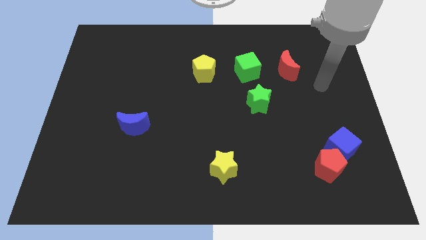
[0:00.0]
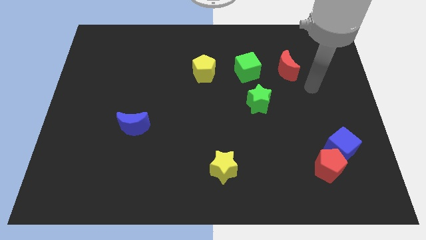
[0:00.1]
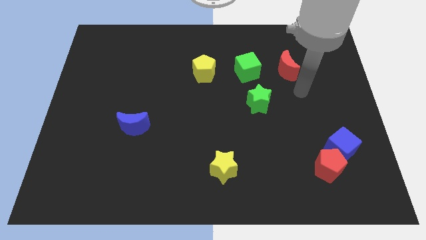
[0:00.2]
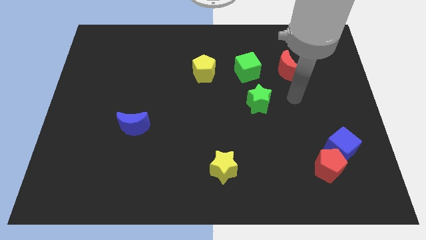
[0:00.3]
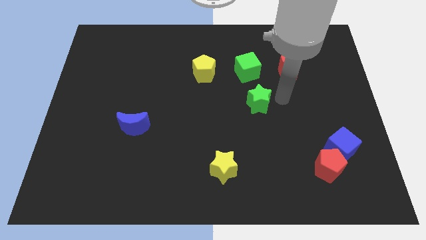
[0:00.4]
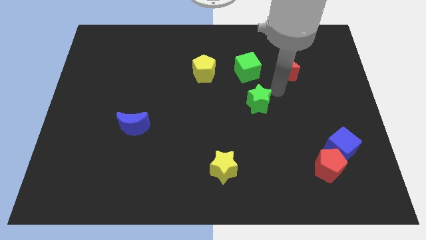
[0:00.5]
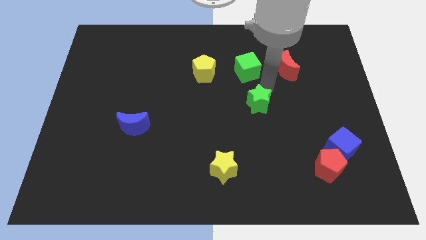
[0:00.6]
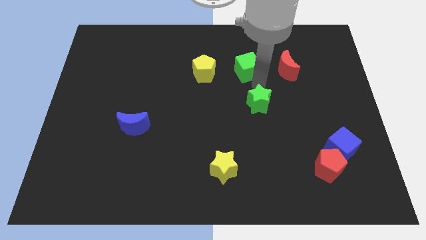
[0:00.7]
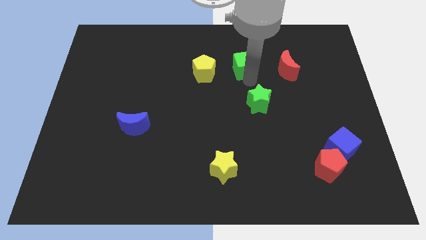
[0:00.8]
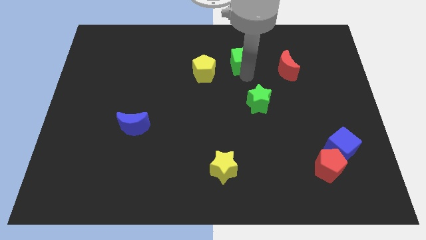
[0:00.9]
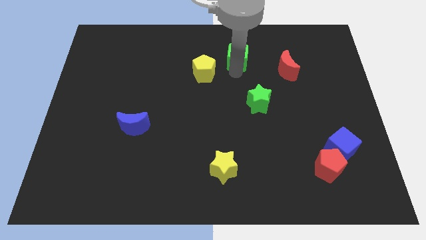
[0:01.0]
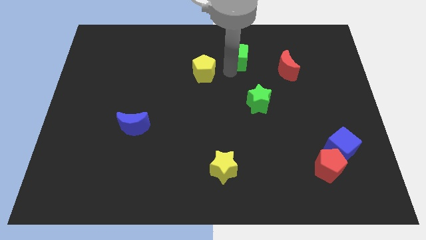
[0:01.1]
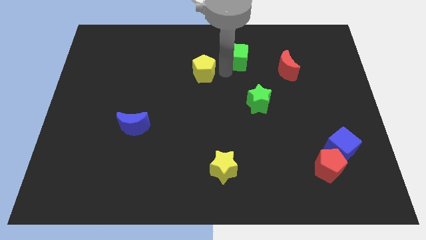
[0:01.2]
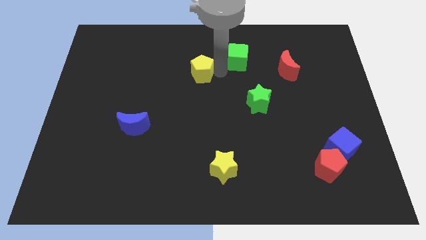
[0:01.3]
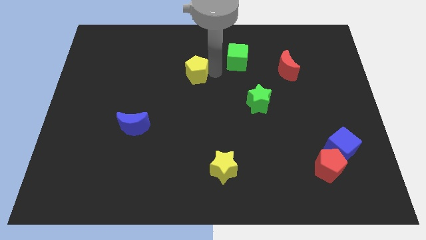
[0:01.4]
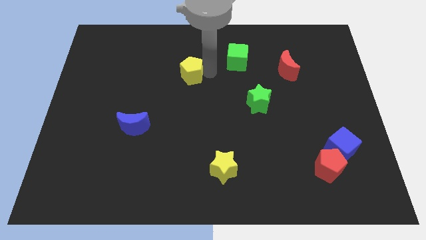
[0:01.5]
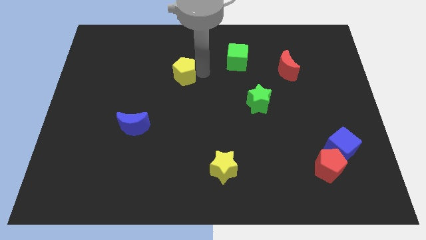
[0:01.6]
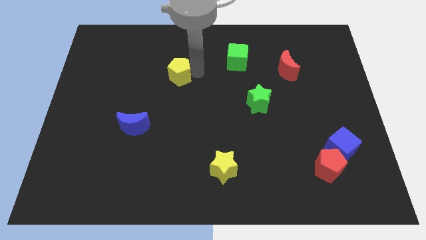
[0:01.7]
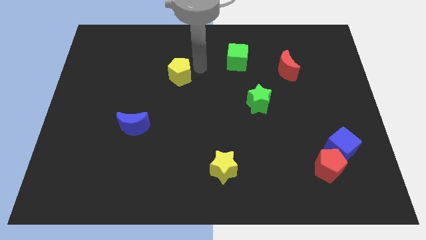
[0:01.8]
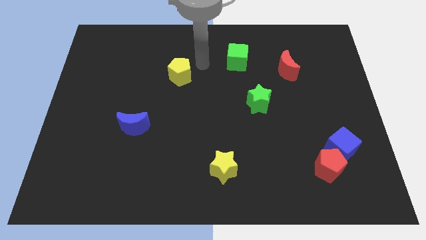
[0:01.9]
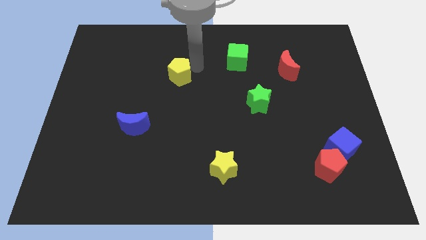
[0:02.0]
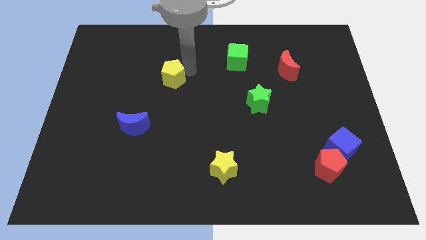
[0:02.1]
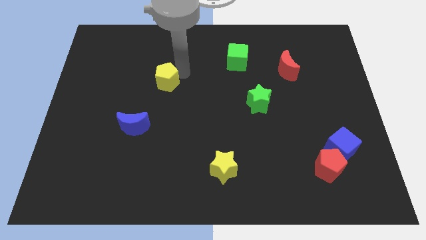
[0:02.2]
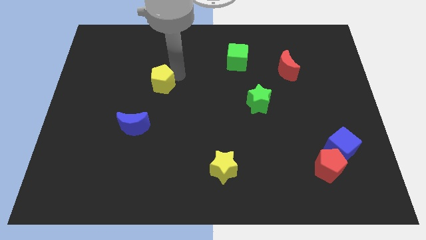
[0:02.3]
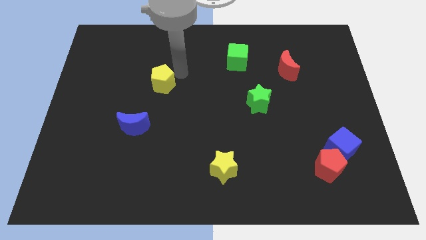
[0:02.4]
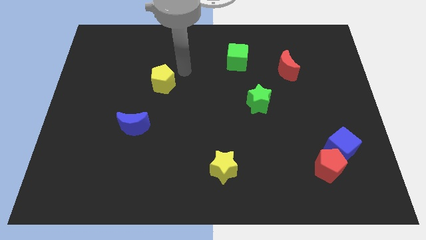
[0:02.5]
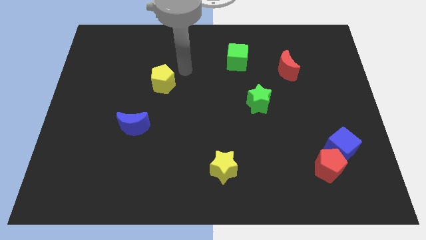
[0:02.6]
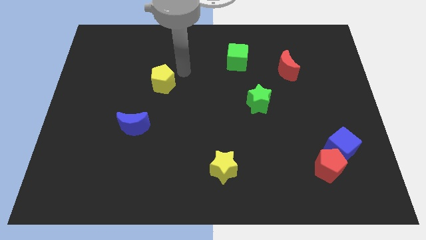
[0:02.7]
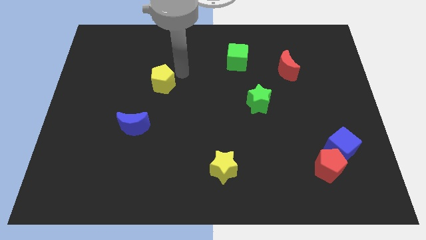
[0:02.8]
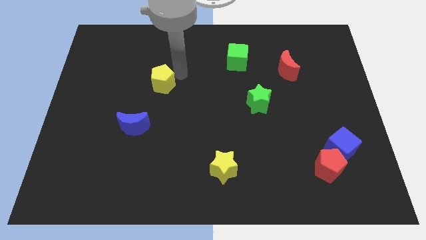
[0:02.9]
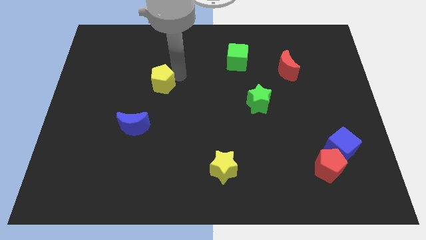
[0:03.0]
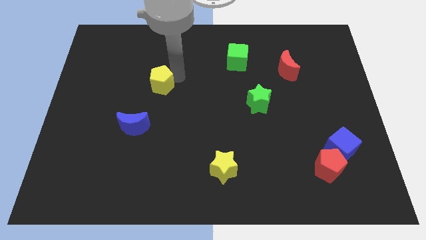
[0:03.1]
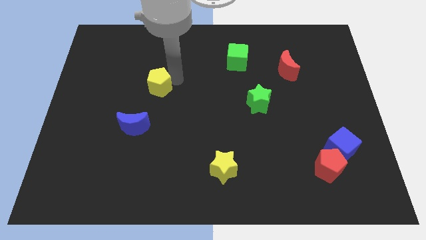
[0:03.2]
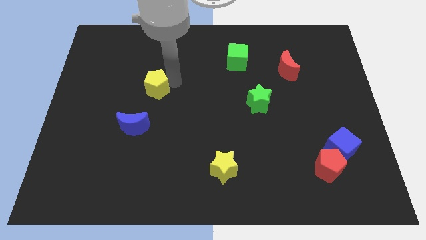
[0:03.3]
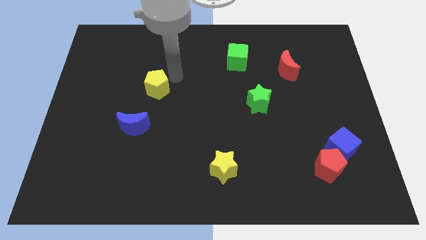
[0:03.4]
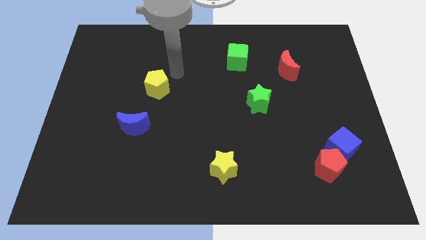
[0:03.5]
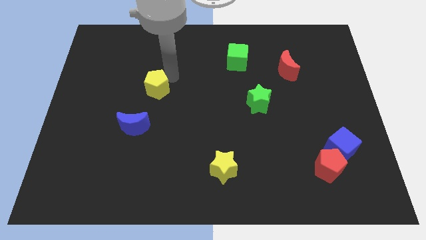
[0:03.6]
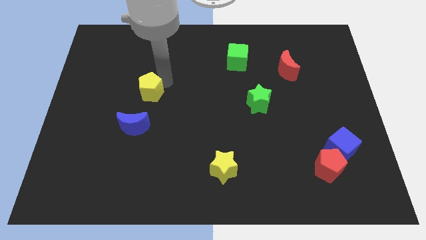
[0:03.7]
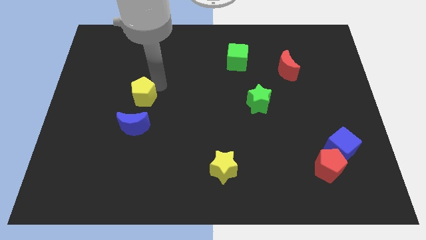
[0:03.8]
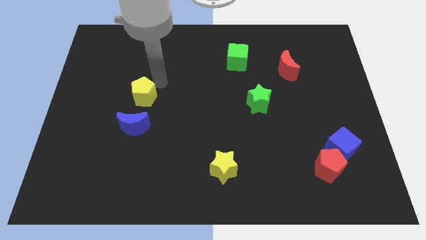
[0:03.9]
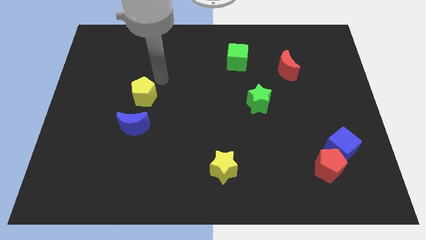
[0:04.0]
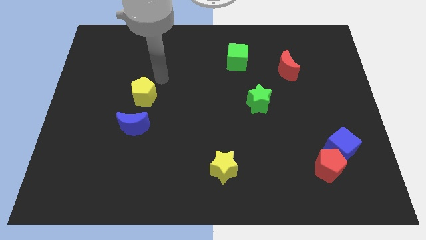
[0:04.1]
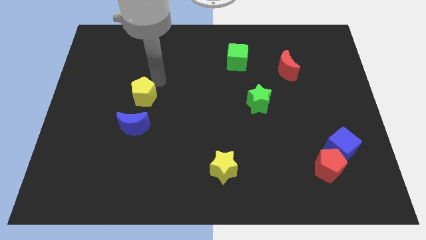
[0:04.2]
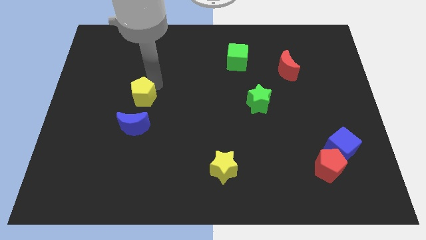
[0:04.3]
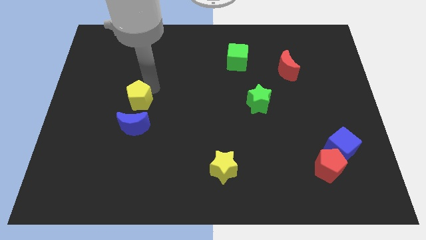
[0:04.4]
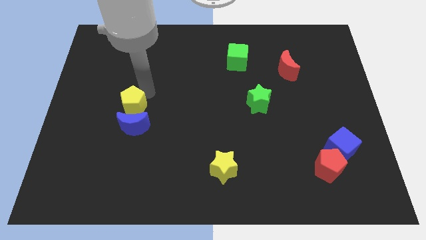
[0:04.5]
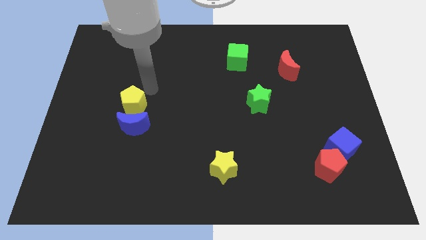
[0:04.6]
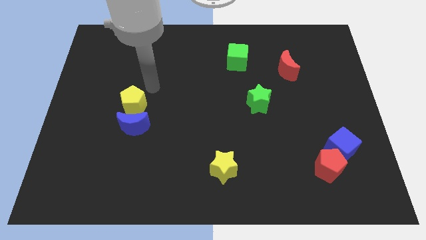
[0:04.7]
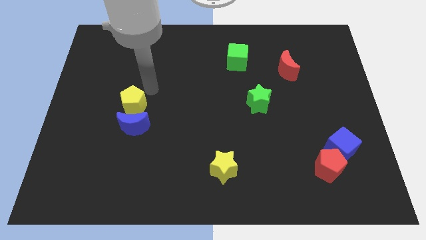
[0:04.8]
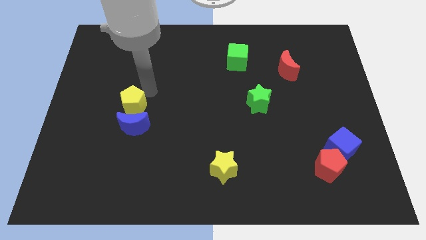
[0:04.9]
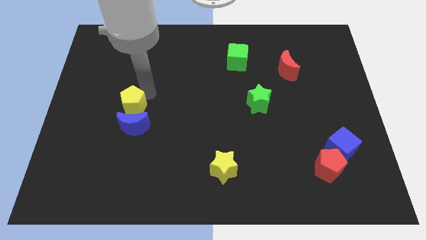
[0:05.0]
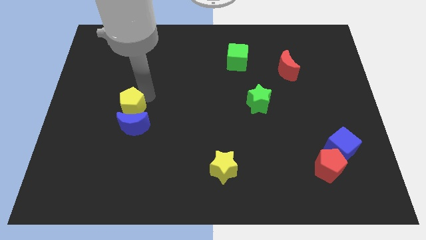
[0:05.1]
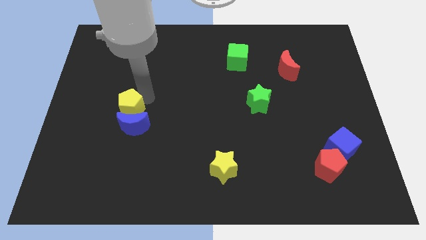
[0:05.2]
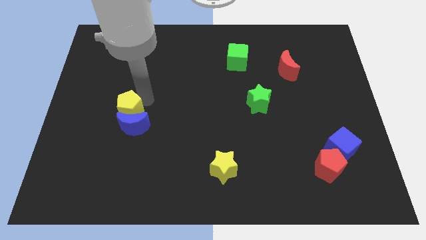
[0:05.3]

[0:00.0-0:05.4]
move the yellow pentagon down and then left

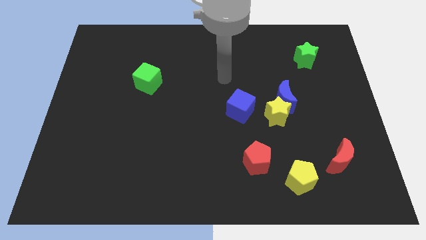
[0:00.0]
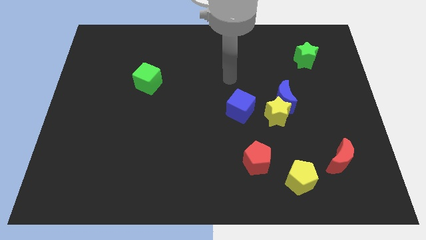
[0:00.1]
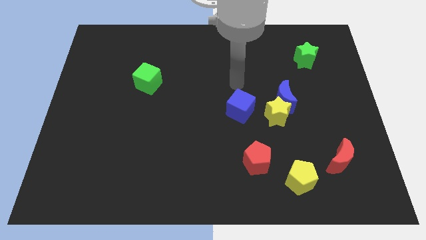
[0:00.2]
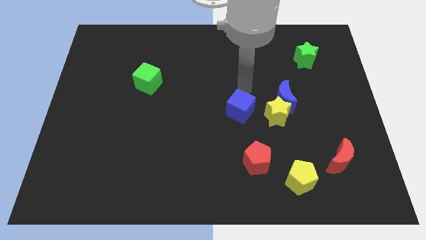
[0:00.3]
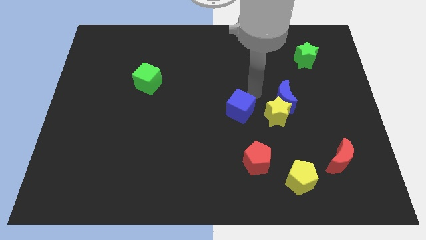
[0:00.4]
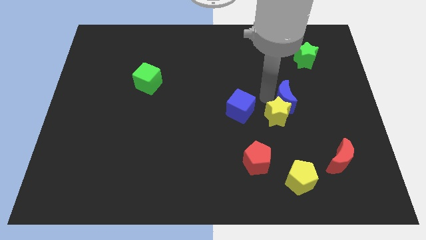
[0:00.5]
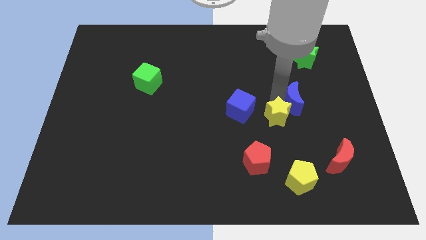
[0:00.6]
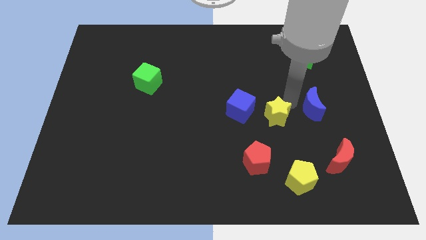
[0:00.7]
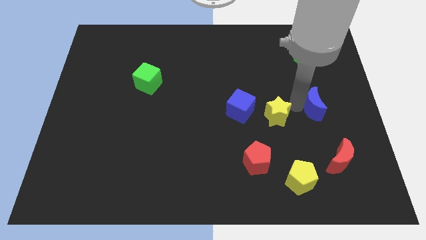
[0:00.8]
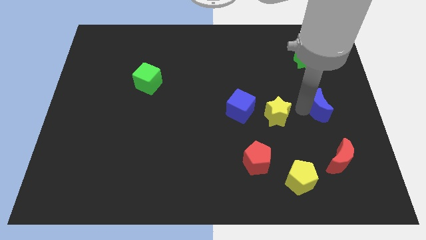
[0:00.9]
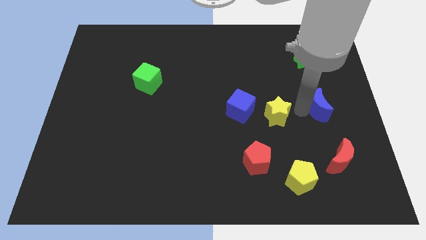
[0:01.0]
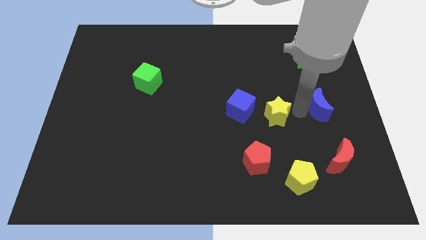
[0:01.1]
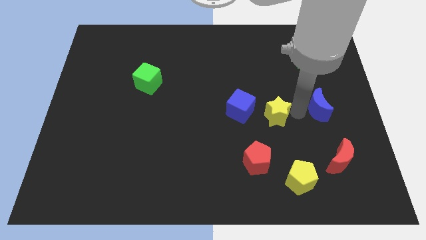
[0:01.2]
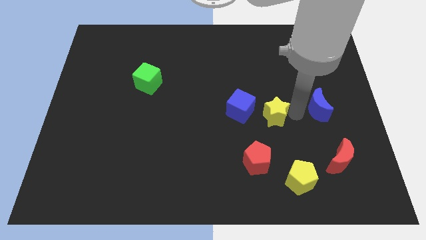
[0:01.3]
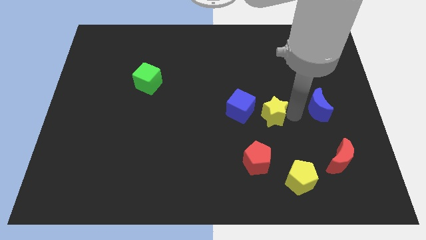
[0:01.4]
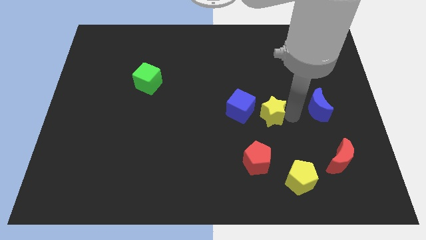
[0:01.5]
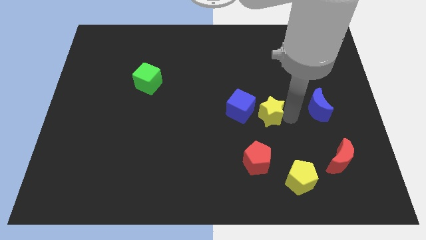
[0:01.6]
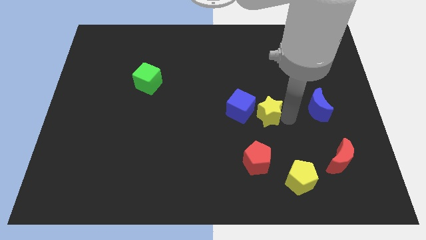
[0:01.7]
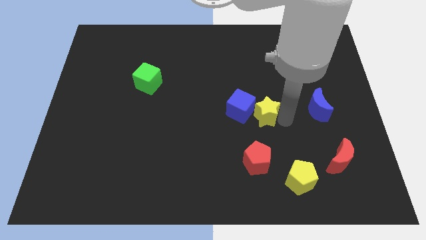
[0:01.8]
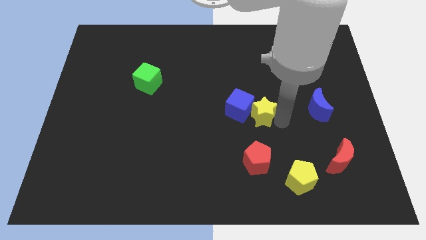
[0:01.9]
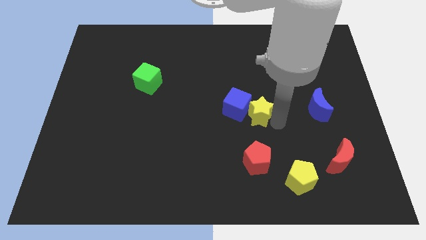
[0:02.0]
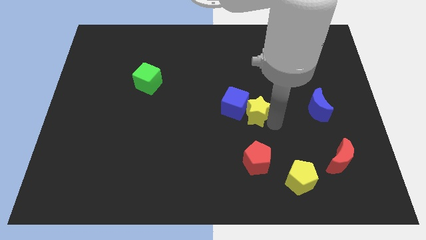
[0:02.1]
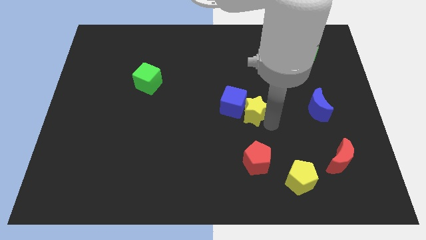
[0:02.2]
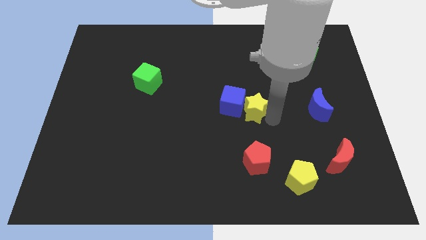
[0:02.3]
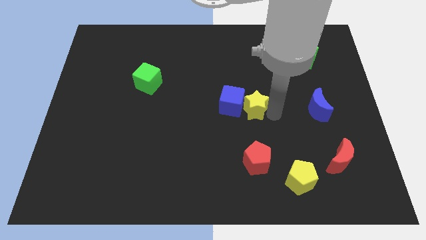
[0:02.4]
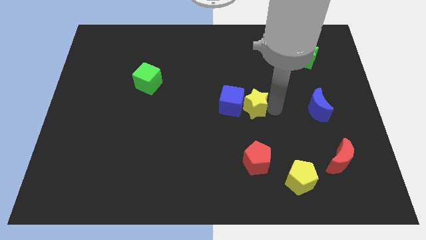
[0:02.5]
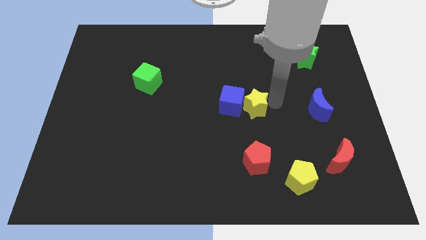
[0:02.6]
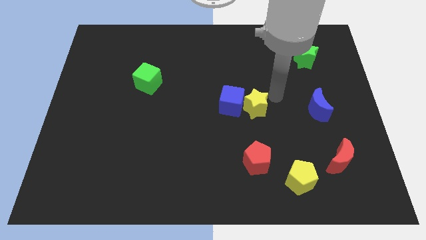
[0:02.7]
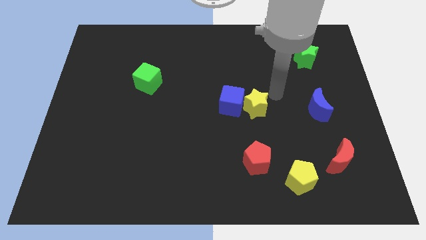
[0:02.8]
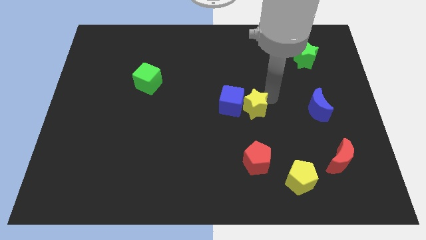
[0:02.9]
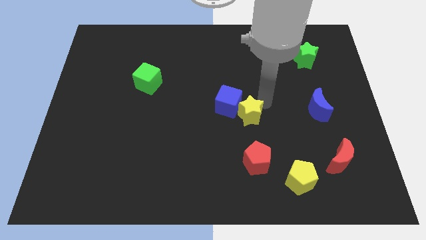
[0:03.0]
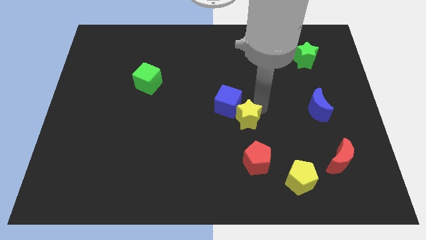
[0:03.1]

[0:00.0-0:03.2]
push the yellow star to the left a little
